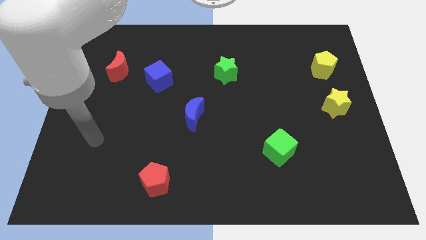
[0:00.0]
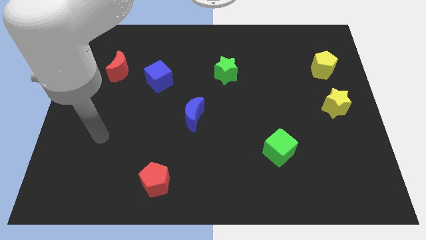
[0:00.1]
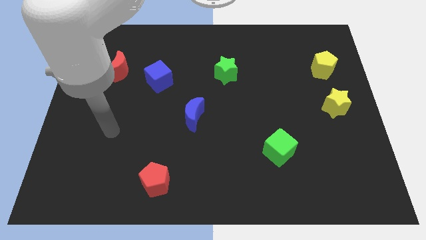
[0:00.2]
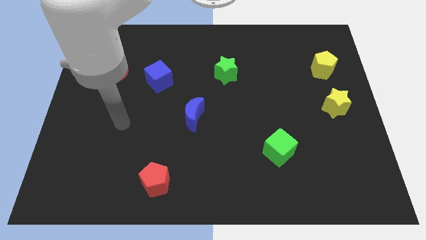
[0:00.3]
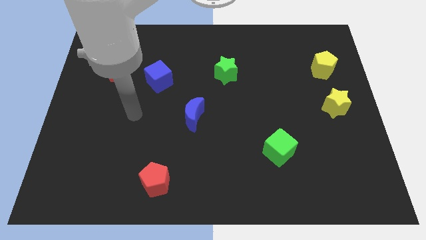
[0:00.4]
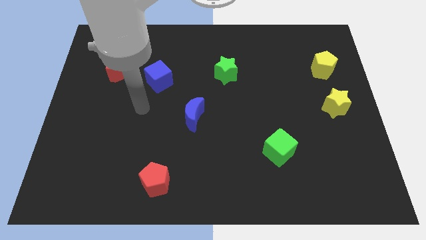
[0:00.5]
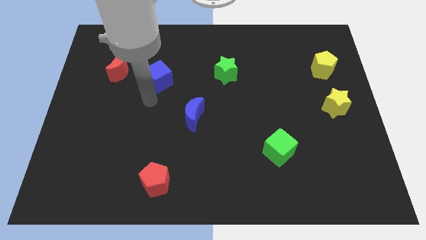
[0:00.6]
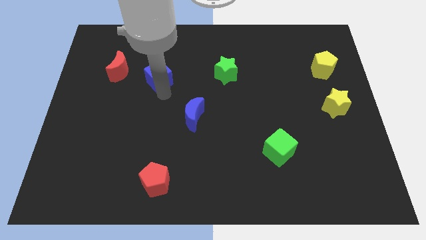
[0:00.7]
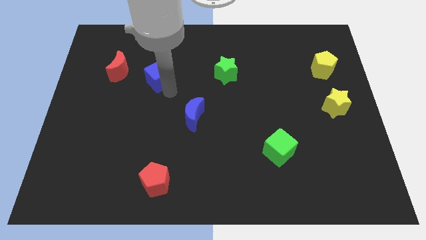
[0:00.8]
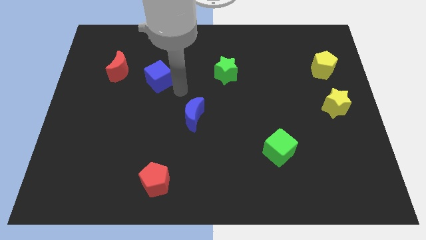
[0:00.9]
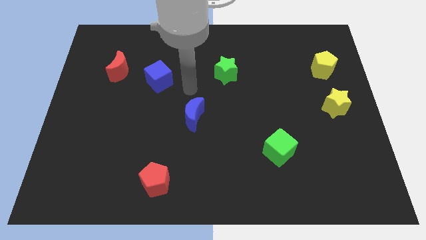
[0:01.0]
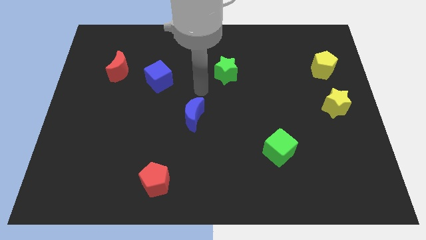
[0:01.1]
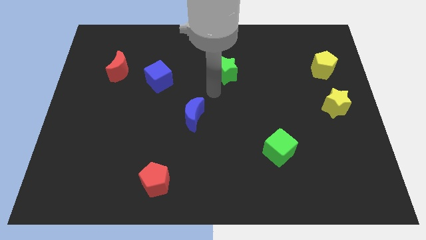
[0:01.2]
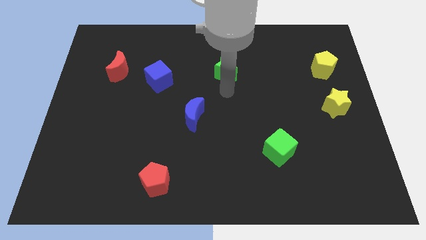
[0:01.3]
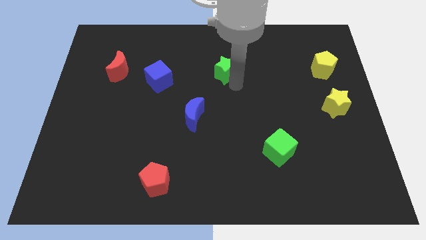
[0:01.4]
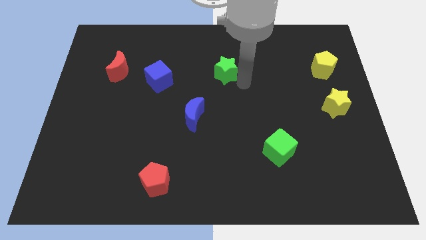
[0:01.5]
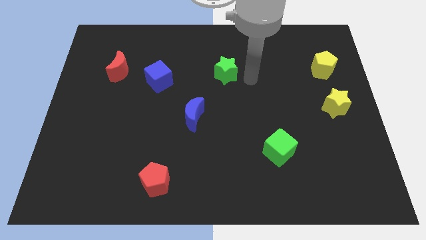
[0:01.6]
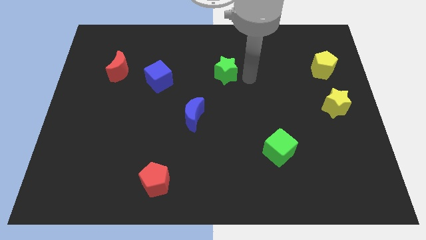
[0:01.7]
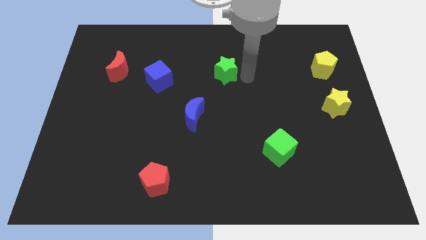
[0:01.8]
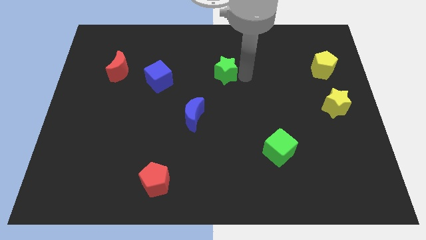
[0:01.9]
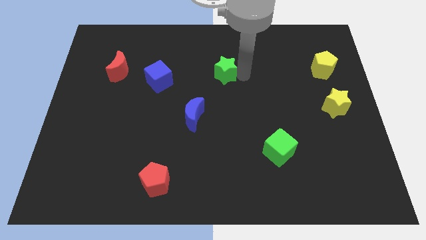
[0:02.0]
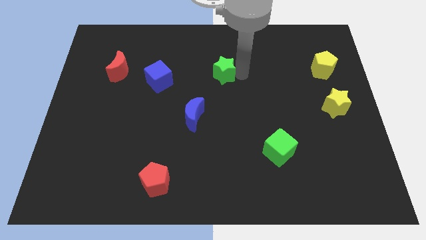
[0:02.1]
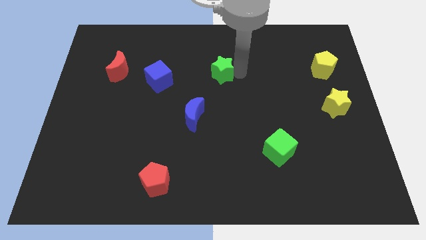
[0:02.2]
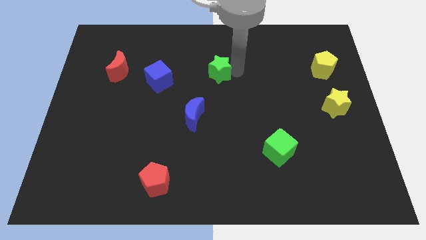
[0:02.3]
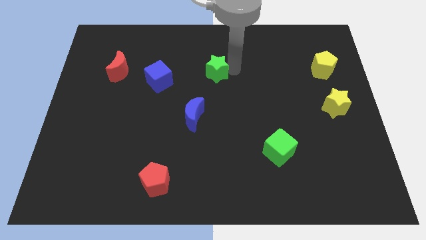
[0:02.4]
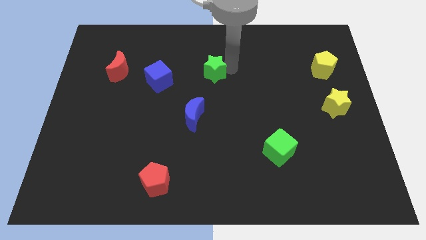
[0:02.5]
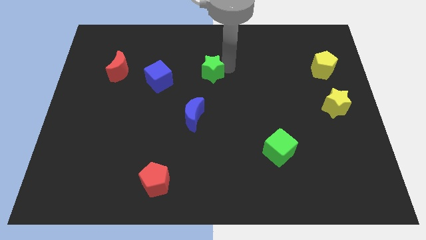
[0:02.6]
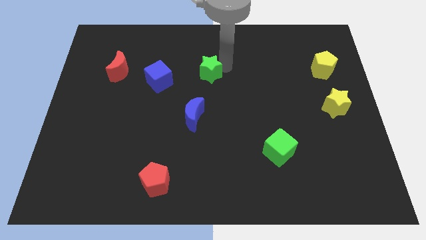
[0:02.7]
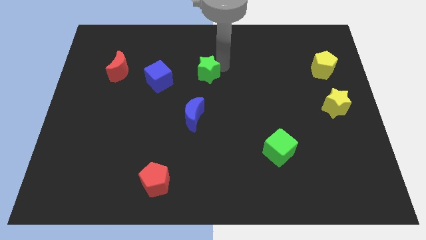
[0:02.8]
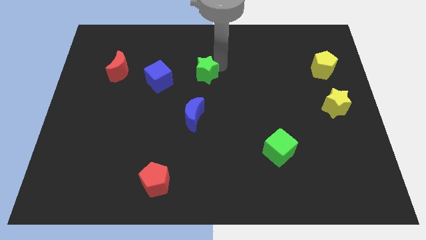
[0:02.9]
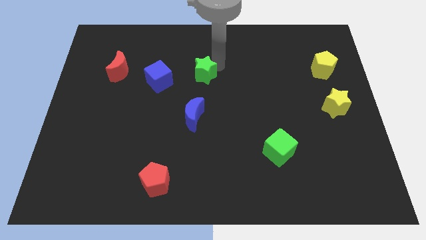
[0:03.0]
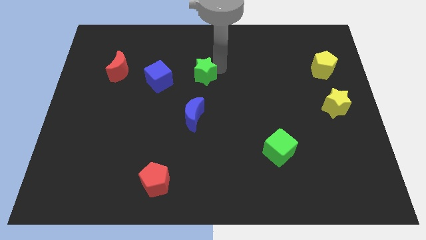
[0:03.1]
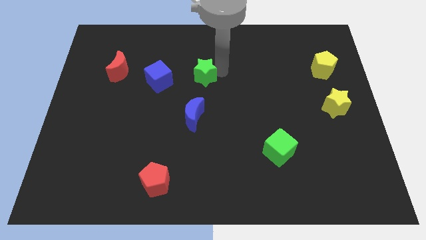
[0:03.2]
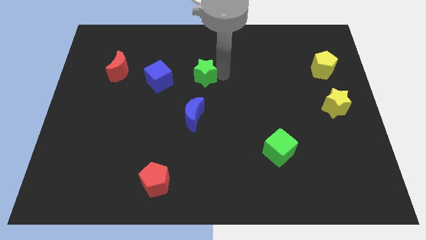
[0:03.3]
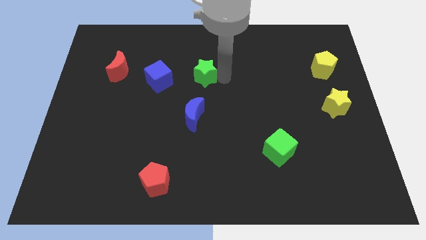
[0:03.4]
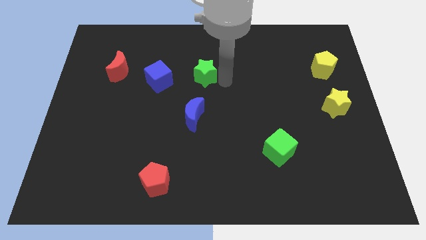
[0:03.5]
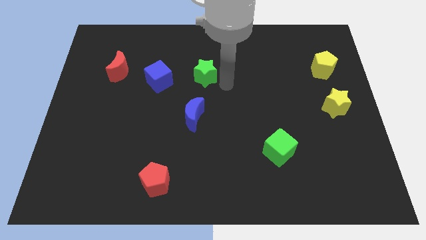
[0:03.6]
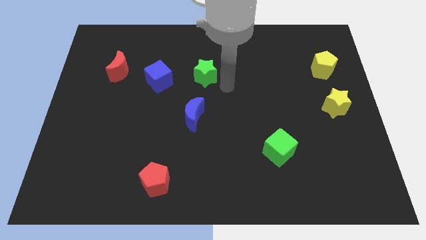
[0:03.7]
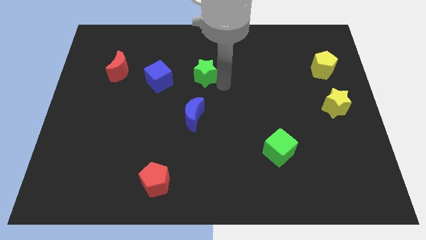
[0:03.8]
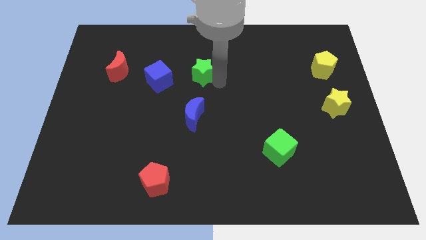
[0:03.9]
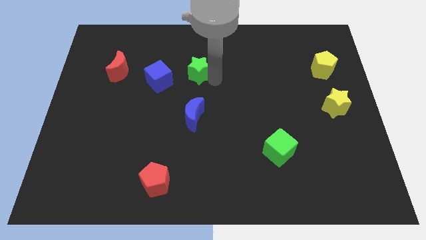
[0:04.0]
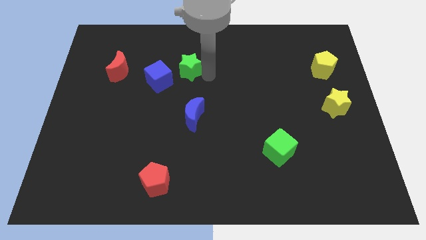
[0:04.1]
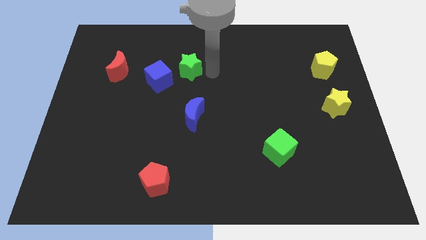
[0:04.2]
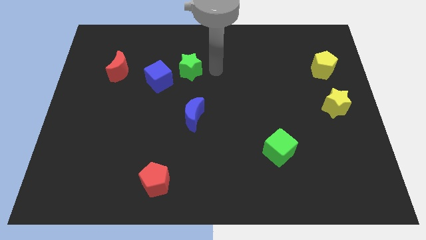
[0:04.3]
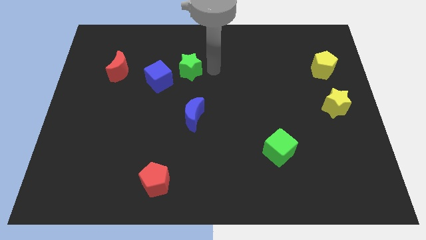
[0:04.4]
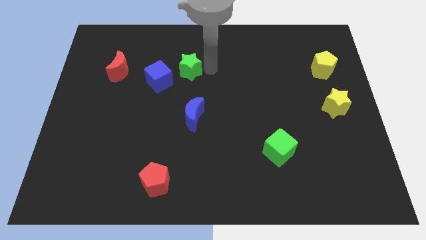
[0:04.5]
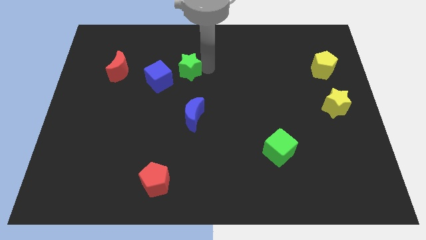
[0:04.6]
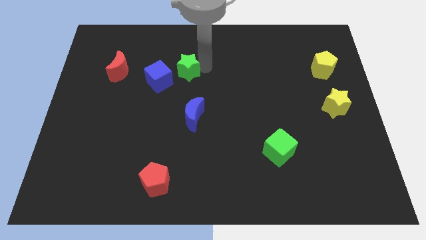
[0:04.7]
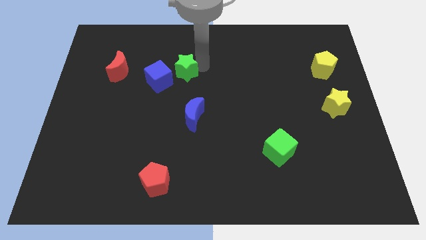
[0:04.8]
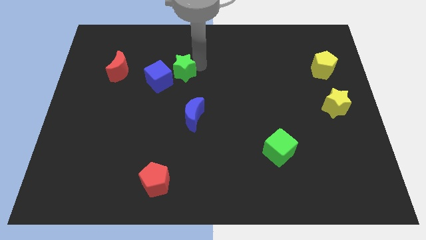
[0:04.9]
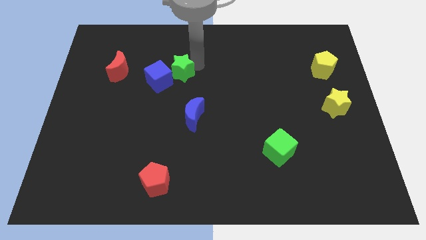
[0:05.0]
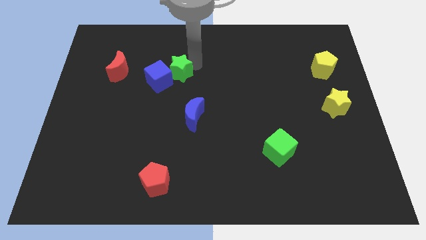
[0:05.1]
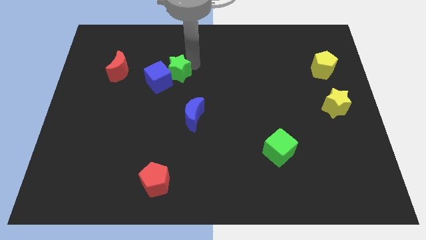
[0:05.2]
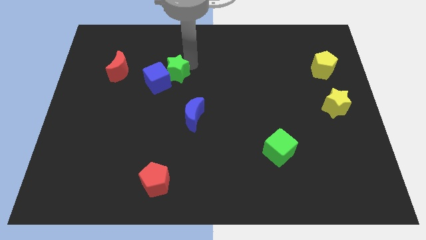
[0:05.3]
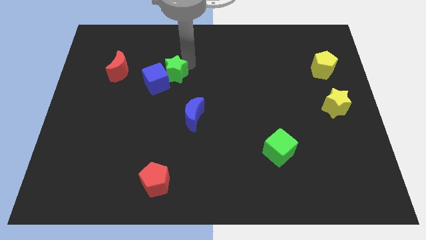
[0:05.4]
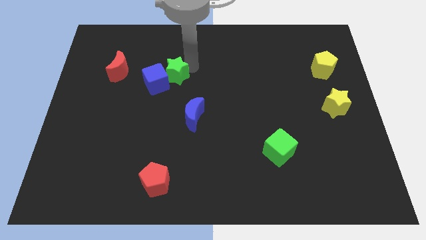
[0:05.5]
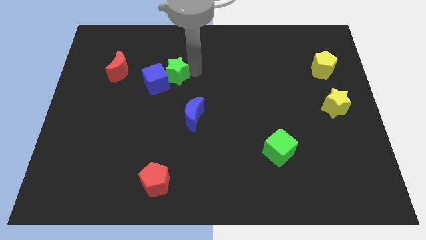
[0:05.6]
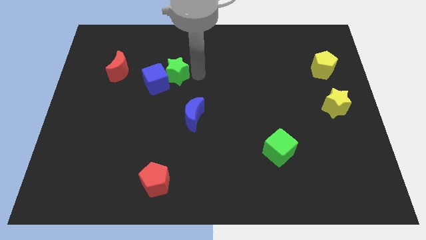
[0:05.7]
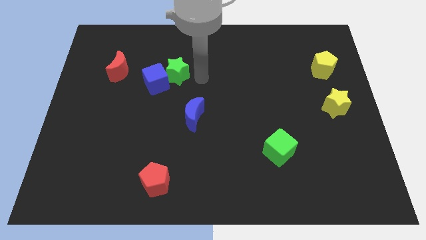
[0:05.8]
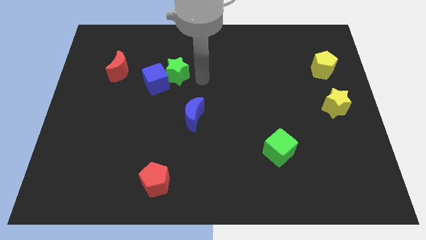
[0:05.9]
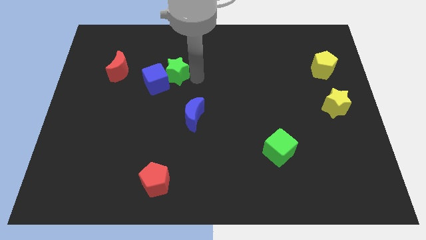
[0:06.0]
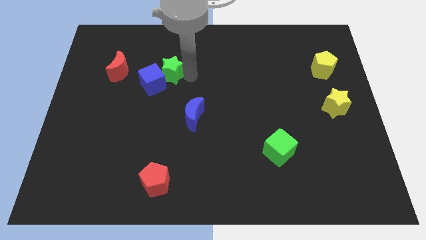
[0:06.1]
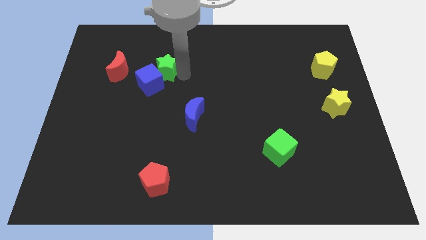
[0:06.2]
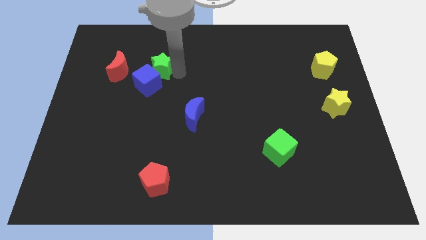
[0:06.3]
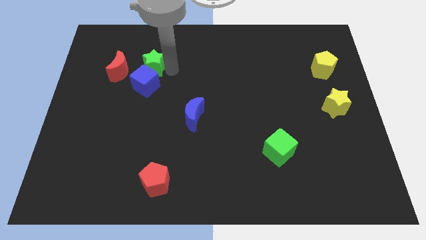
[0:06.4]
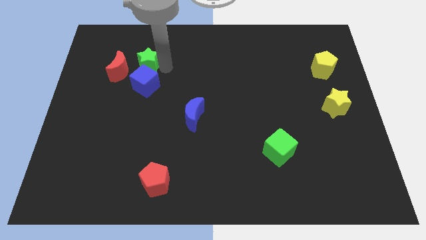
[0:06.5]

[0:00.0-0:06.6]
put the green star to the top left side of the blue cube

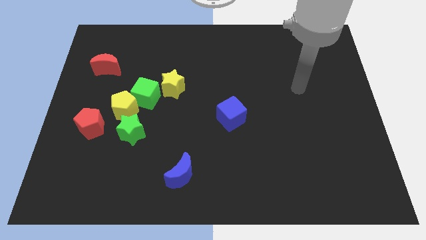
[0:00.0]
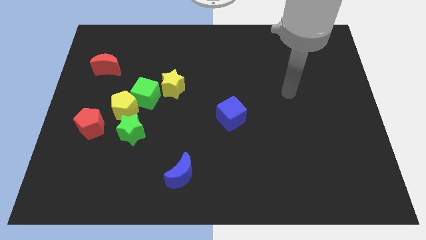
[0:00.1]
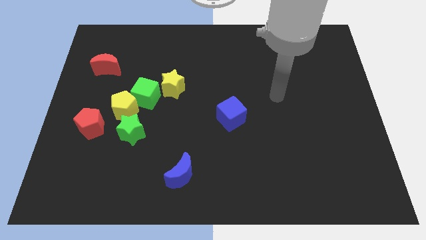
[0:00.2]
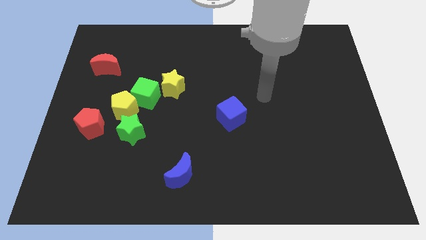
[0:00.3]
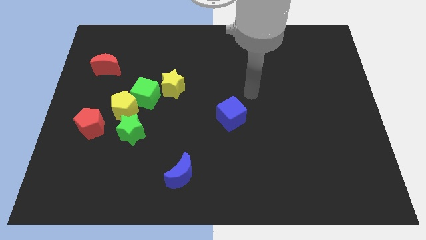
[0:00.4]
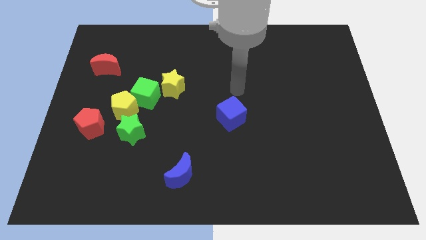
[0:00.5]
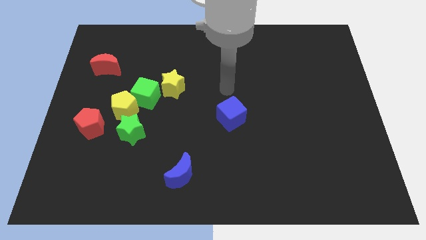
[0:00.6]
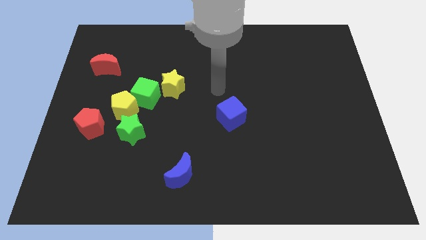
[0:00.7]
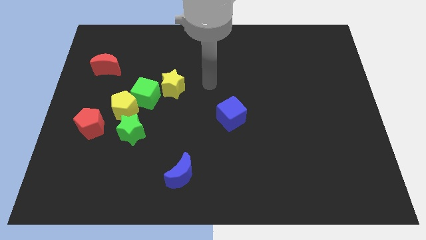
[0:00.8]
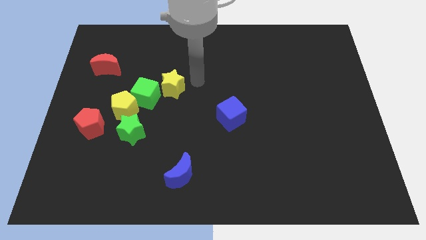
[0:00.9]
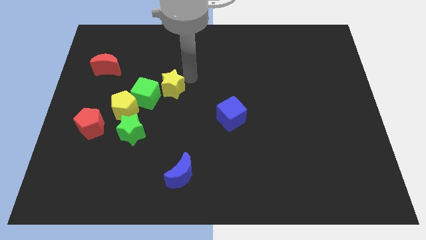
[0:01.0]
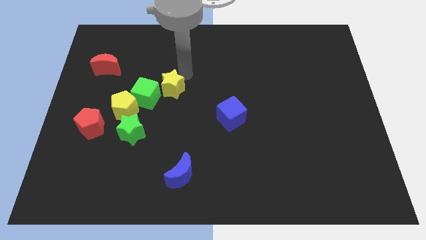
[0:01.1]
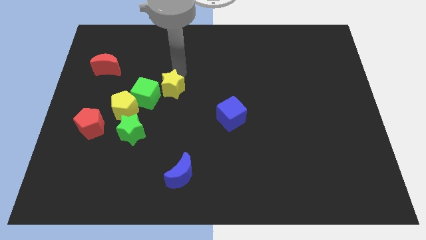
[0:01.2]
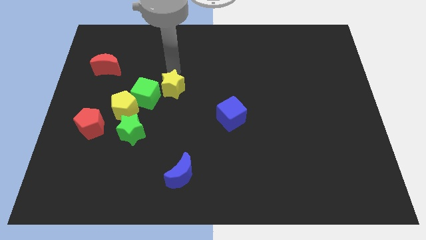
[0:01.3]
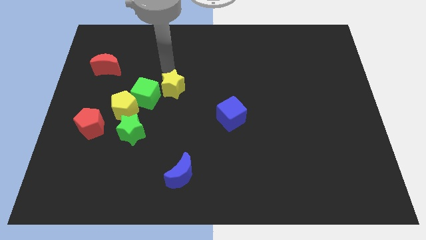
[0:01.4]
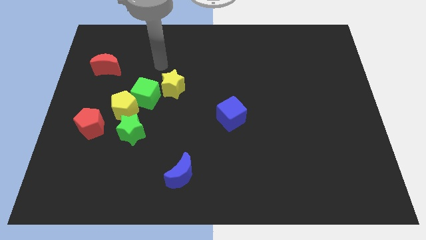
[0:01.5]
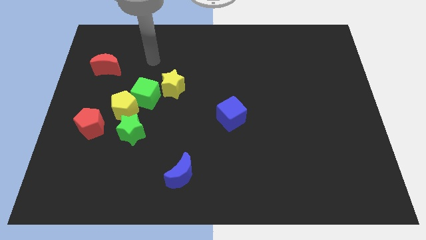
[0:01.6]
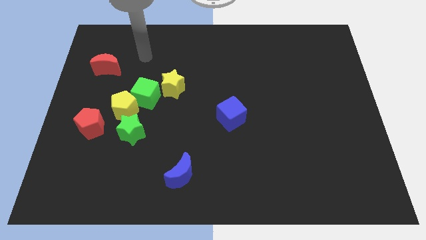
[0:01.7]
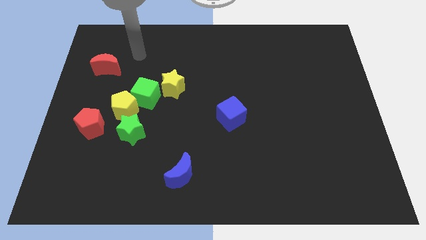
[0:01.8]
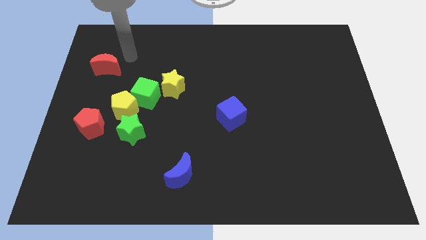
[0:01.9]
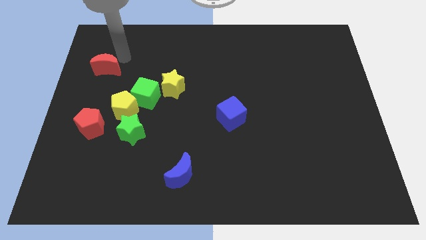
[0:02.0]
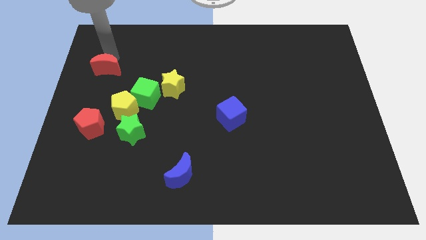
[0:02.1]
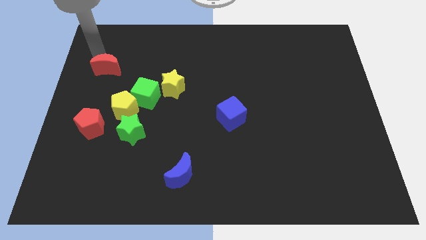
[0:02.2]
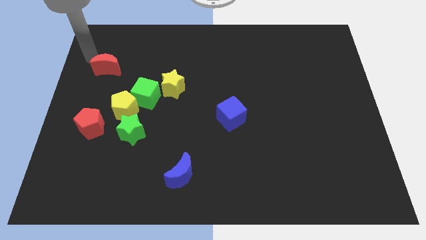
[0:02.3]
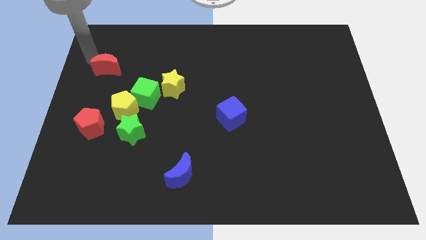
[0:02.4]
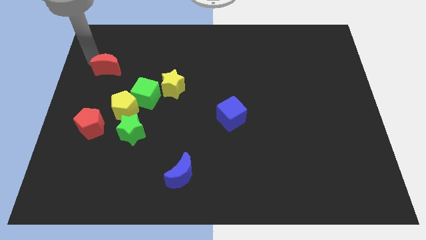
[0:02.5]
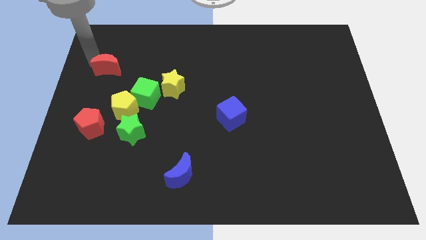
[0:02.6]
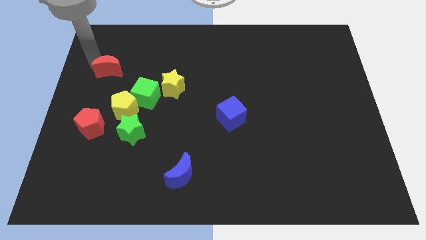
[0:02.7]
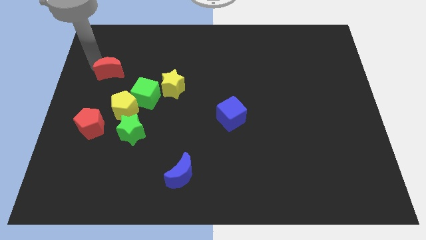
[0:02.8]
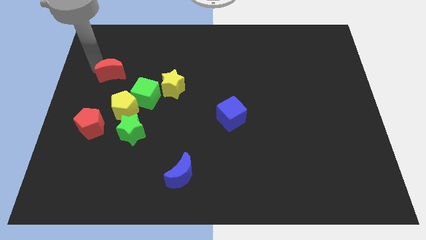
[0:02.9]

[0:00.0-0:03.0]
put the red moon diagonally up and to the left of the green cube
